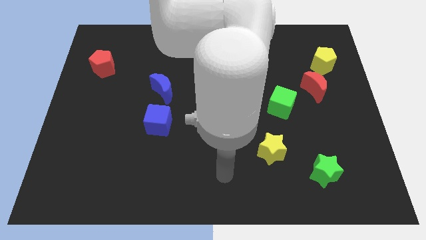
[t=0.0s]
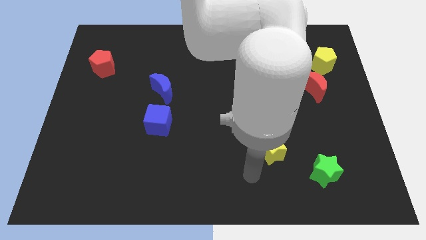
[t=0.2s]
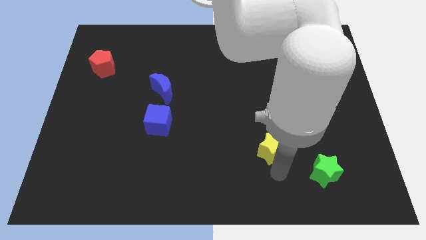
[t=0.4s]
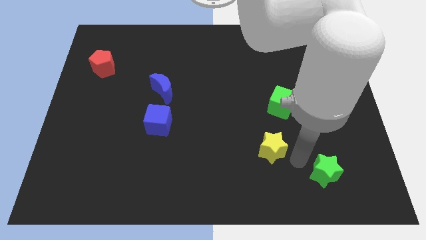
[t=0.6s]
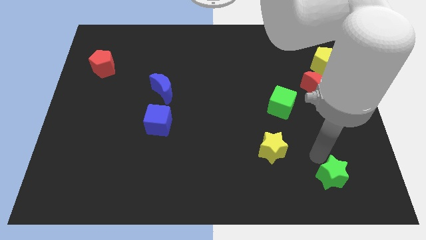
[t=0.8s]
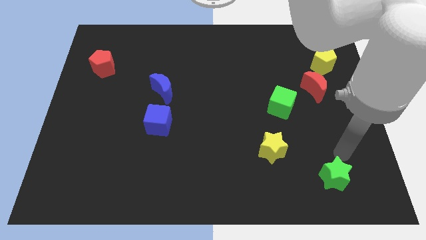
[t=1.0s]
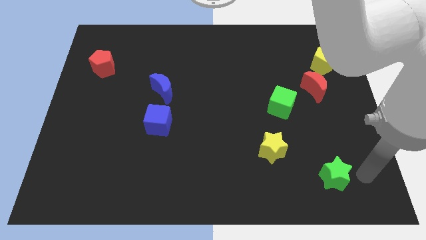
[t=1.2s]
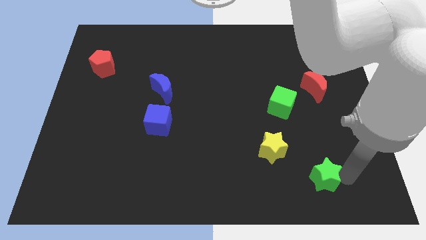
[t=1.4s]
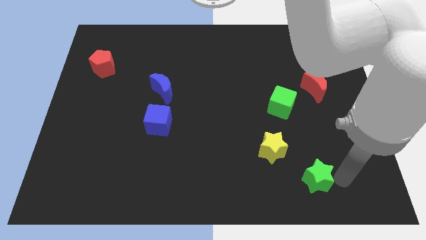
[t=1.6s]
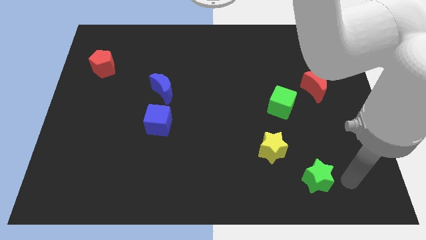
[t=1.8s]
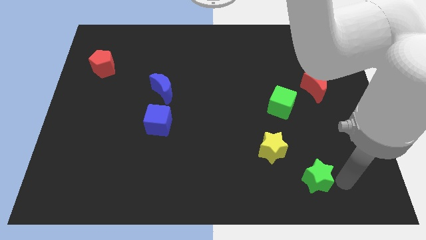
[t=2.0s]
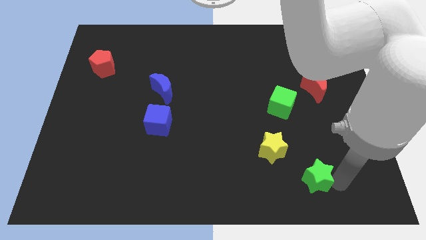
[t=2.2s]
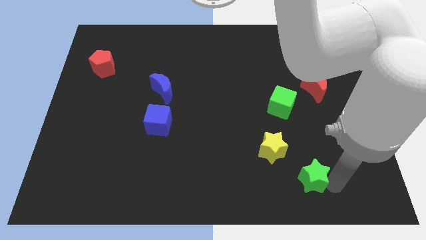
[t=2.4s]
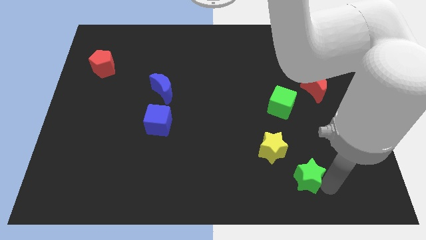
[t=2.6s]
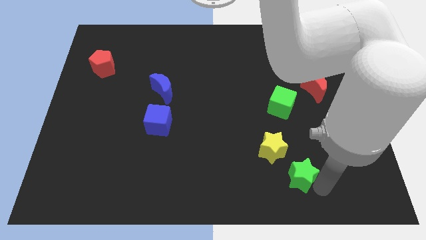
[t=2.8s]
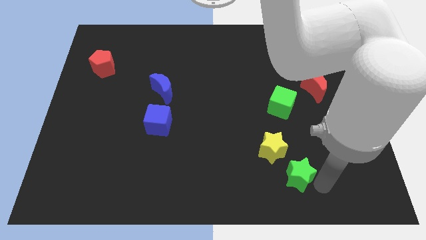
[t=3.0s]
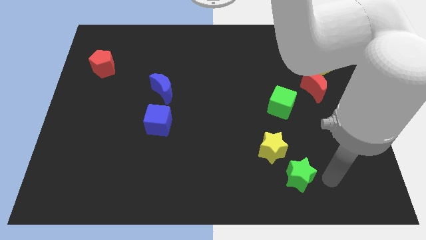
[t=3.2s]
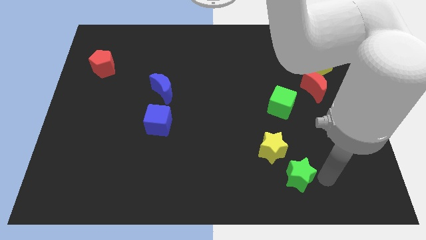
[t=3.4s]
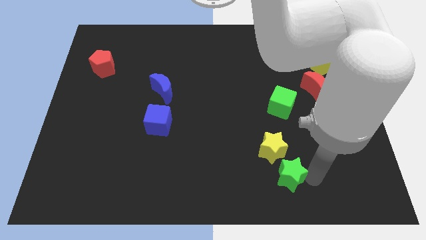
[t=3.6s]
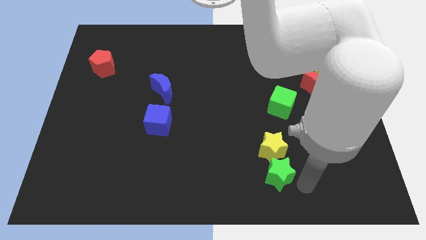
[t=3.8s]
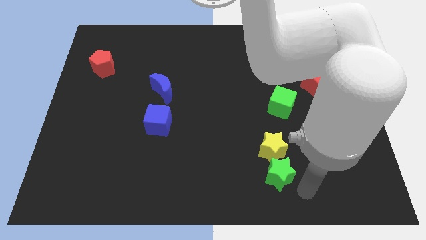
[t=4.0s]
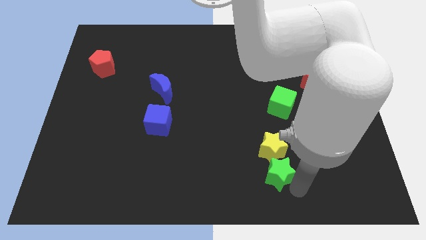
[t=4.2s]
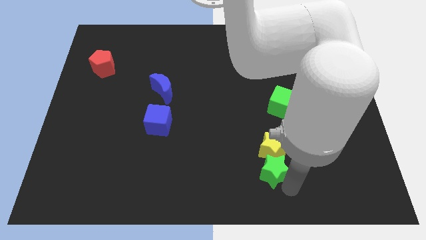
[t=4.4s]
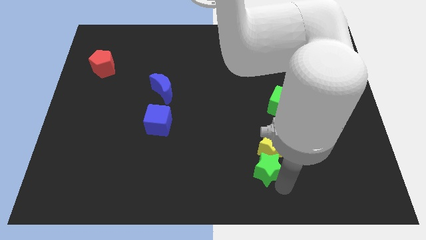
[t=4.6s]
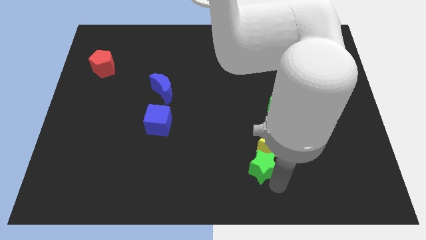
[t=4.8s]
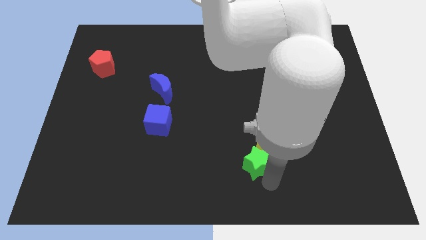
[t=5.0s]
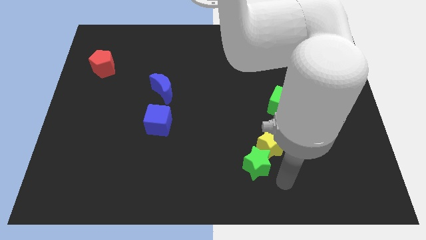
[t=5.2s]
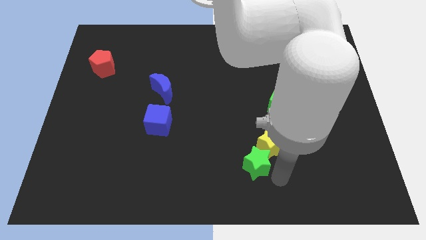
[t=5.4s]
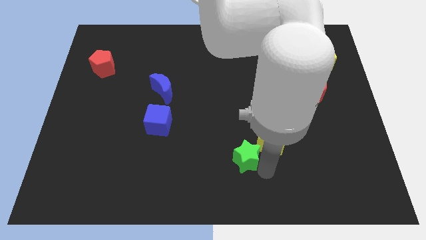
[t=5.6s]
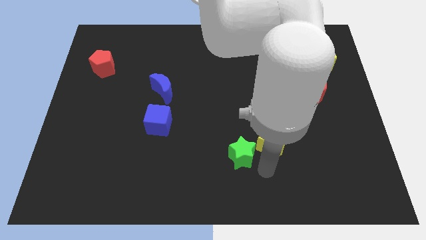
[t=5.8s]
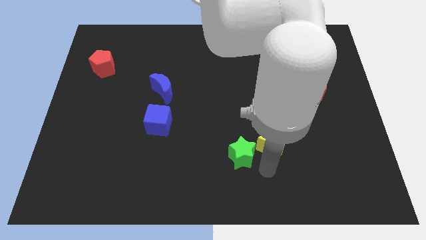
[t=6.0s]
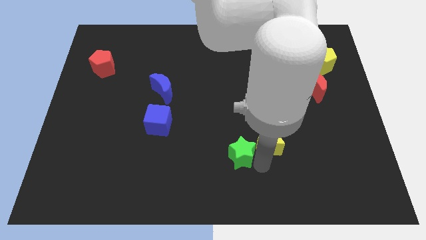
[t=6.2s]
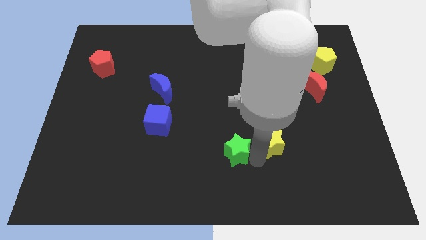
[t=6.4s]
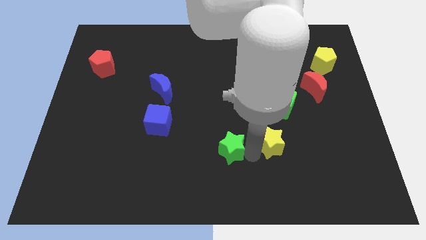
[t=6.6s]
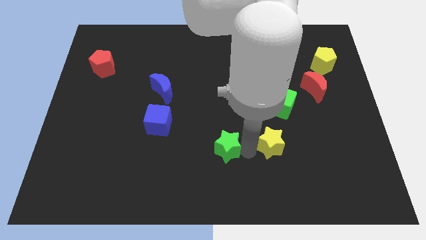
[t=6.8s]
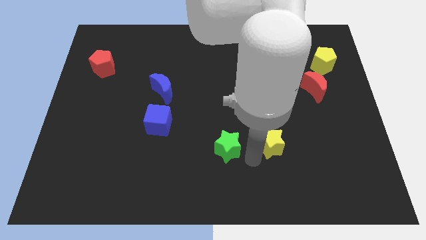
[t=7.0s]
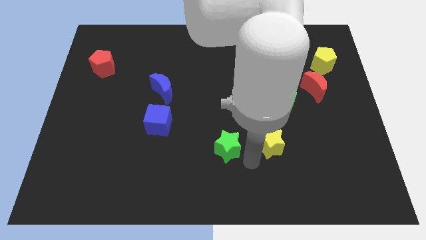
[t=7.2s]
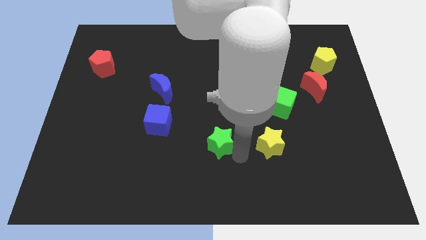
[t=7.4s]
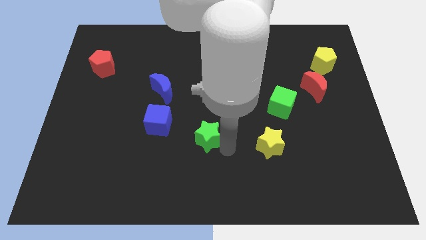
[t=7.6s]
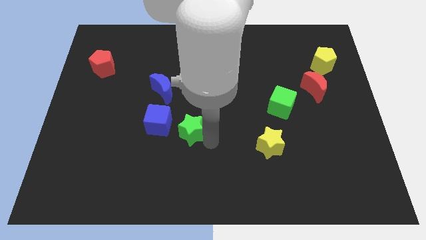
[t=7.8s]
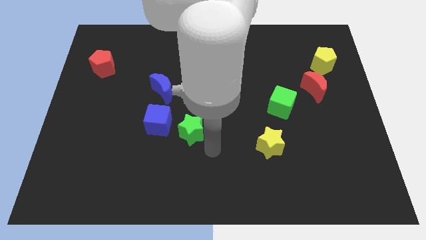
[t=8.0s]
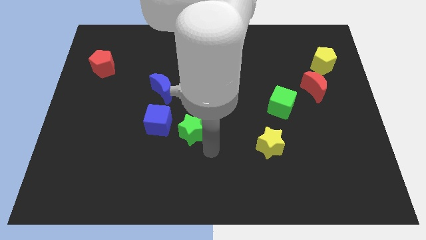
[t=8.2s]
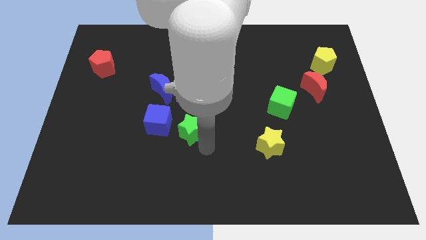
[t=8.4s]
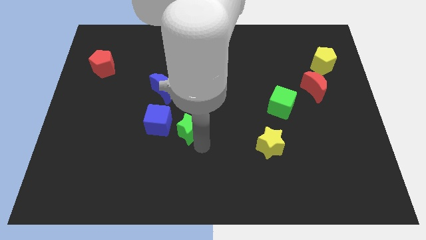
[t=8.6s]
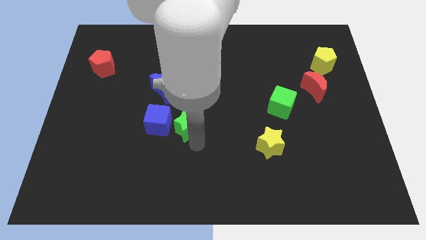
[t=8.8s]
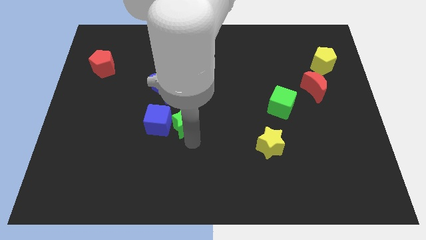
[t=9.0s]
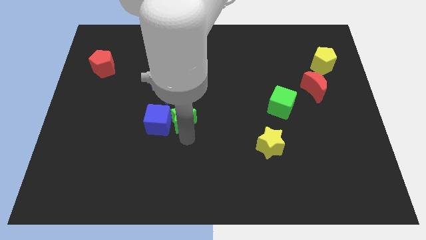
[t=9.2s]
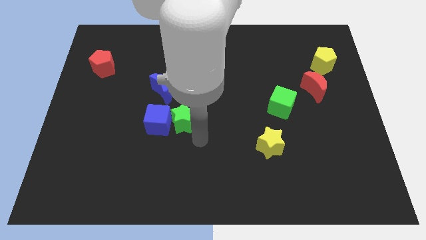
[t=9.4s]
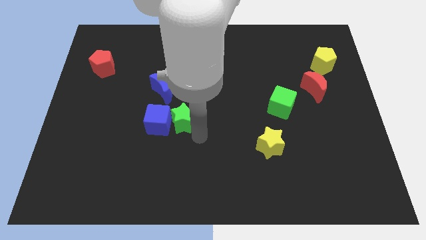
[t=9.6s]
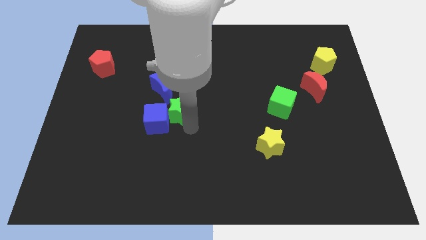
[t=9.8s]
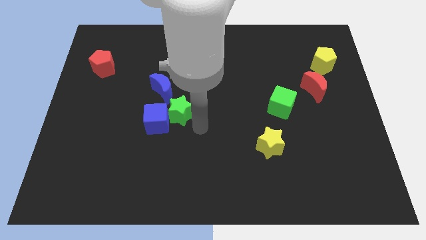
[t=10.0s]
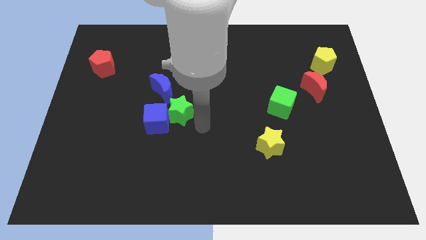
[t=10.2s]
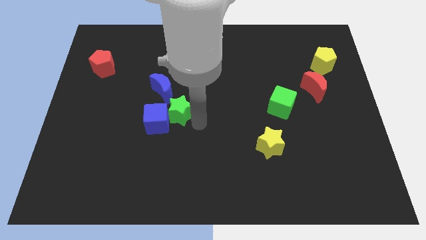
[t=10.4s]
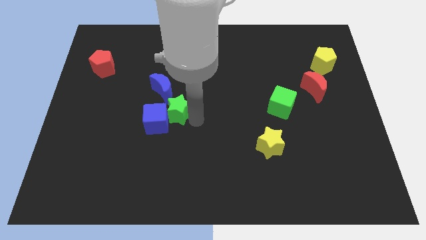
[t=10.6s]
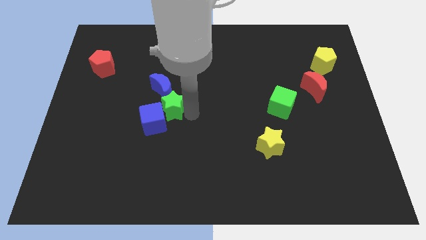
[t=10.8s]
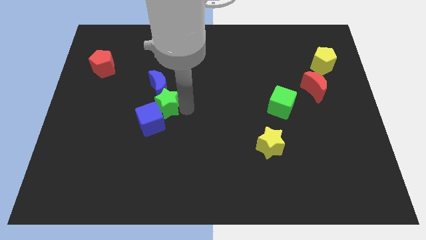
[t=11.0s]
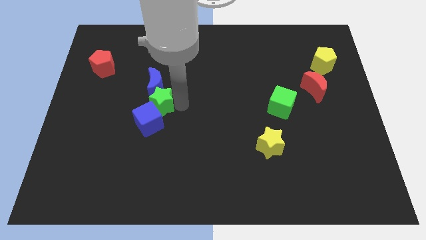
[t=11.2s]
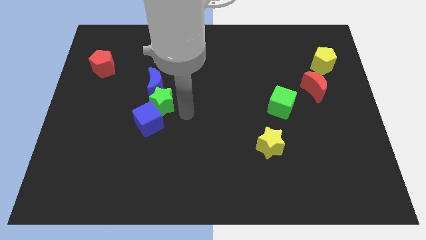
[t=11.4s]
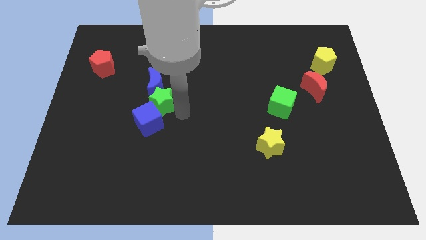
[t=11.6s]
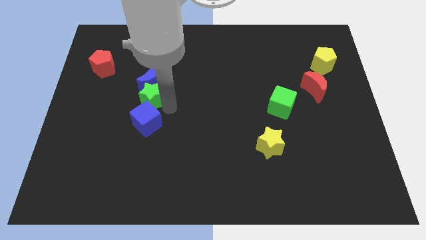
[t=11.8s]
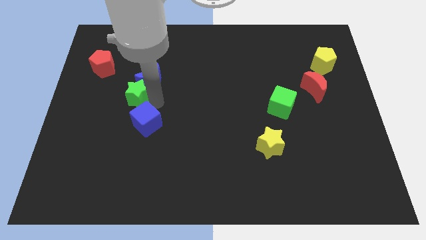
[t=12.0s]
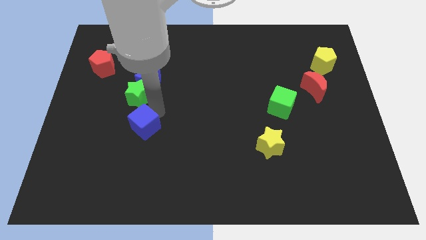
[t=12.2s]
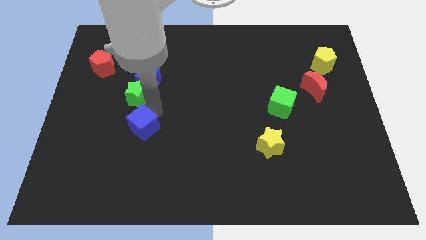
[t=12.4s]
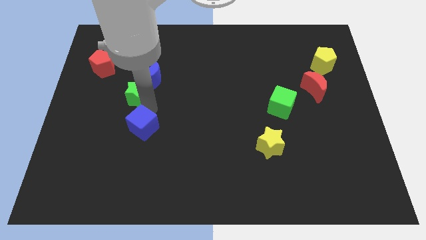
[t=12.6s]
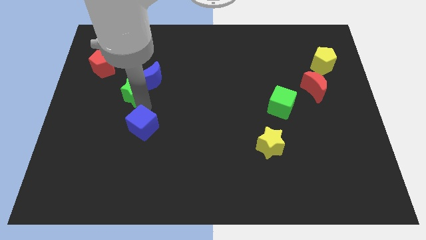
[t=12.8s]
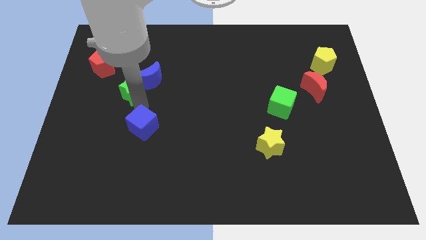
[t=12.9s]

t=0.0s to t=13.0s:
put the green star to the bottom right side of the red pentagon
